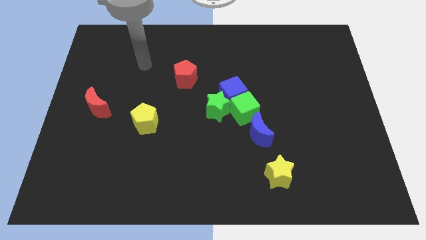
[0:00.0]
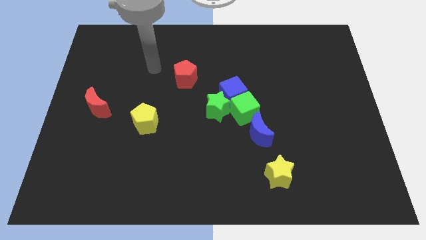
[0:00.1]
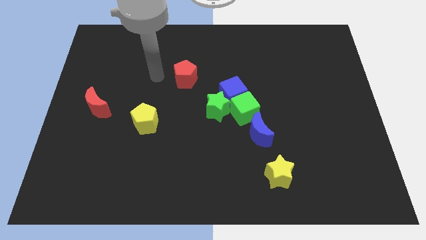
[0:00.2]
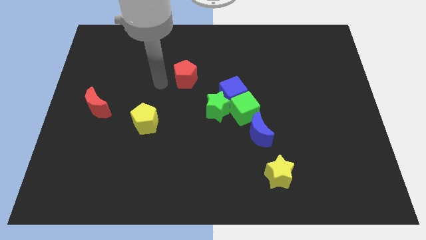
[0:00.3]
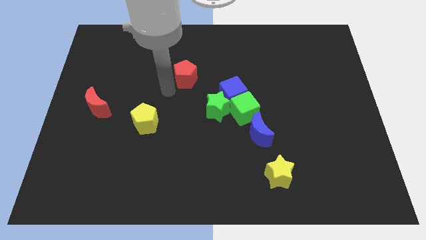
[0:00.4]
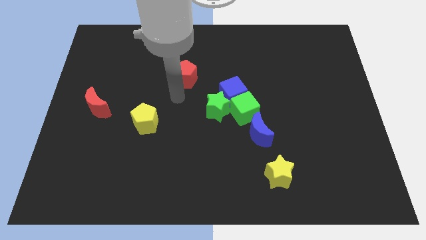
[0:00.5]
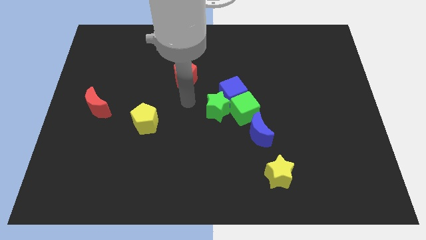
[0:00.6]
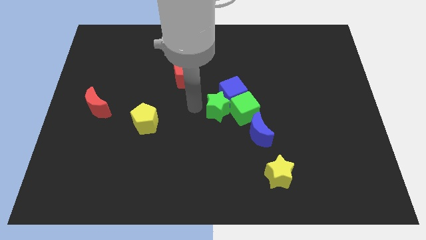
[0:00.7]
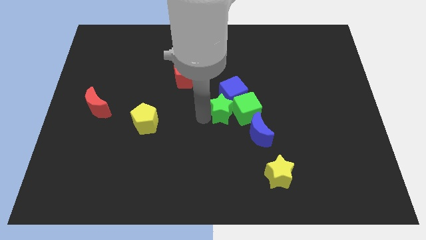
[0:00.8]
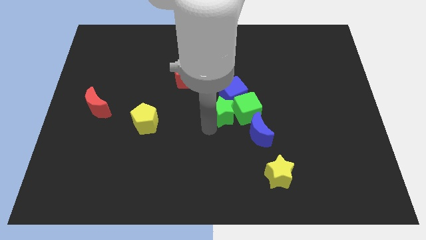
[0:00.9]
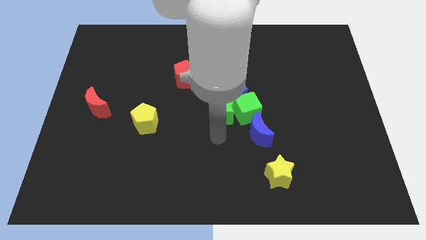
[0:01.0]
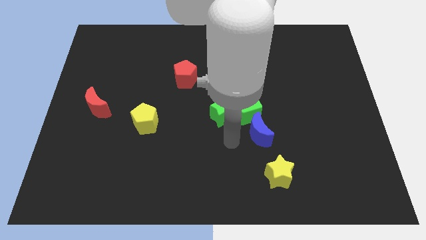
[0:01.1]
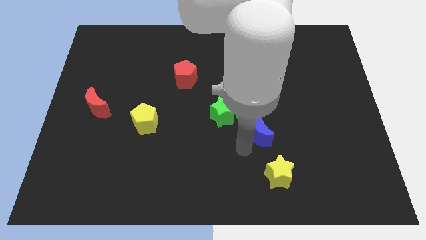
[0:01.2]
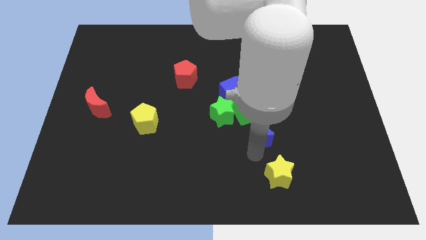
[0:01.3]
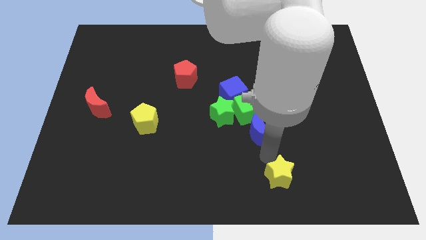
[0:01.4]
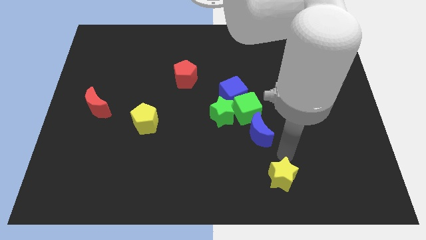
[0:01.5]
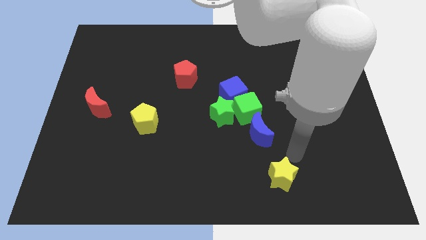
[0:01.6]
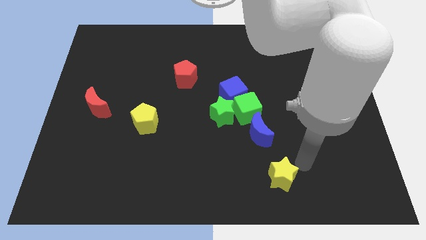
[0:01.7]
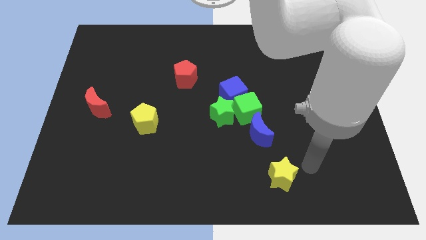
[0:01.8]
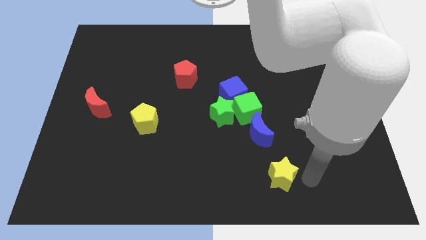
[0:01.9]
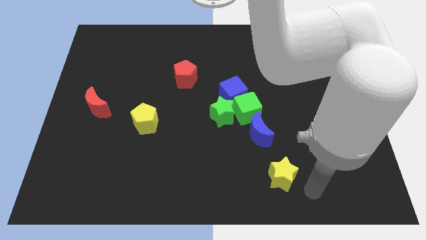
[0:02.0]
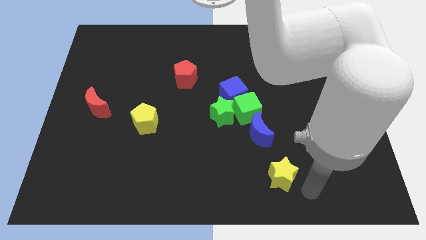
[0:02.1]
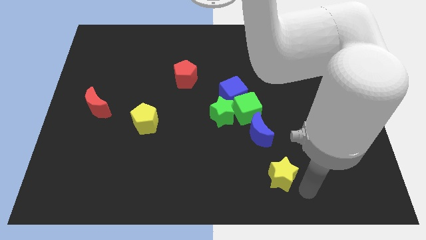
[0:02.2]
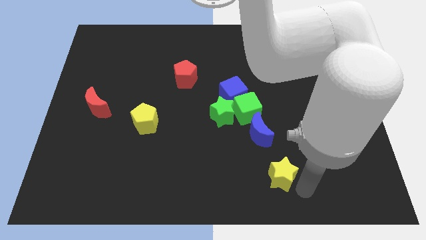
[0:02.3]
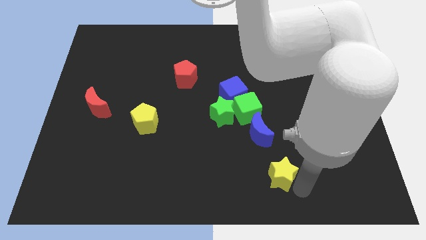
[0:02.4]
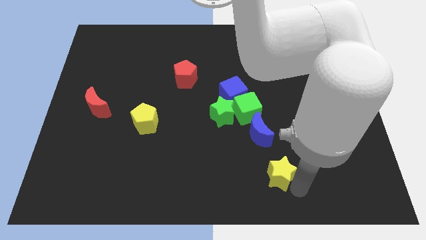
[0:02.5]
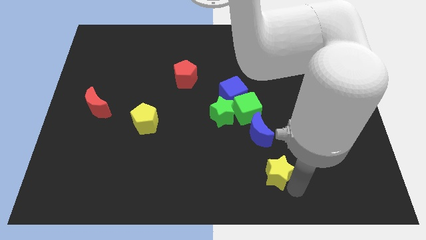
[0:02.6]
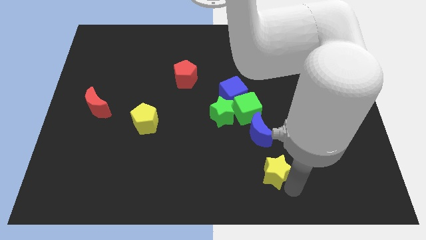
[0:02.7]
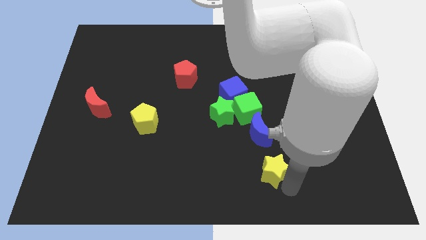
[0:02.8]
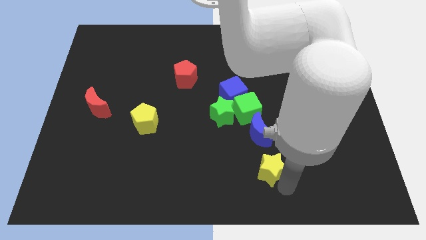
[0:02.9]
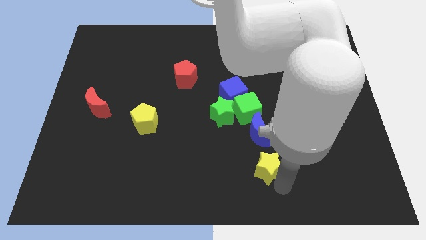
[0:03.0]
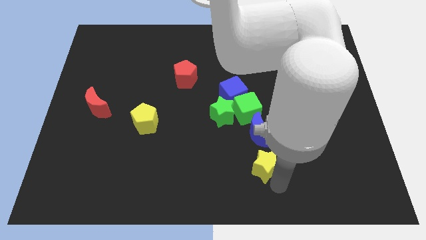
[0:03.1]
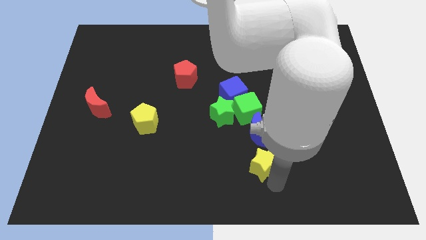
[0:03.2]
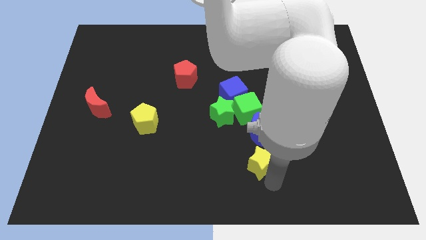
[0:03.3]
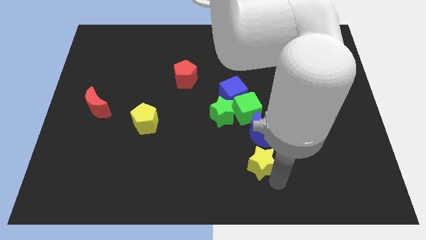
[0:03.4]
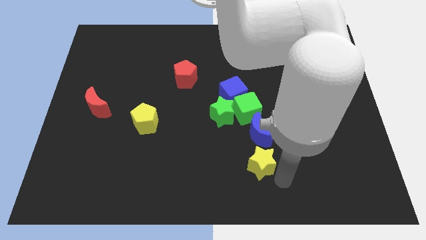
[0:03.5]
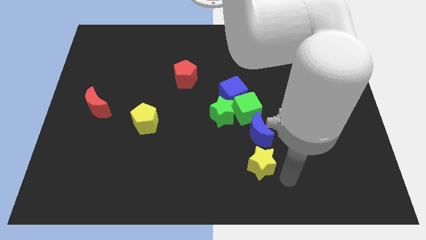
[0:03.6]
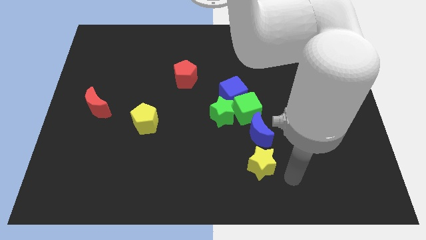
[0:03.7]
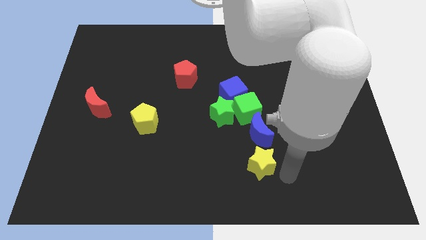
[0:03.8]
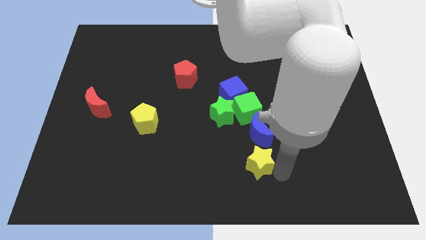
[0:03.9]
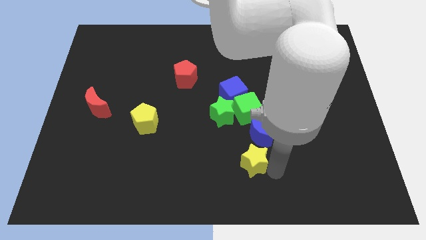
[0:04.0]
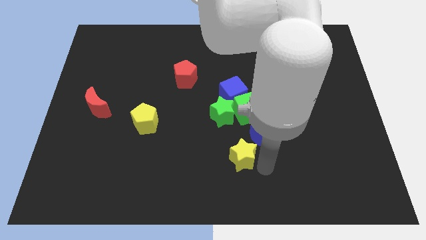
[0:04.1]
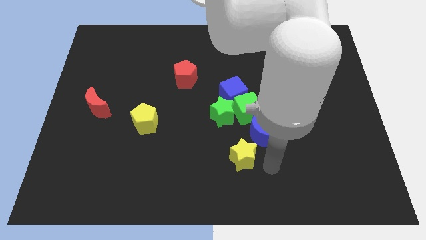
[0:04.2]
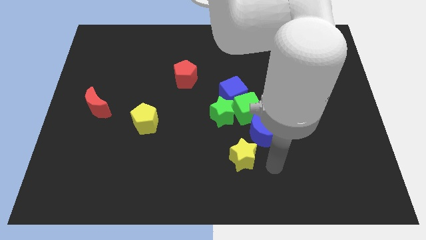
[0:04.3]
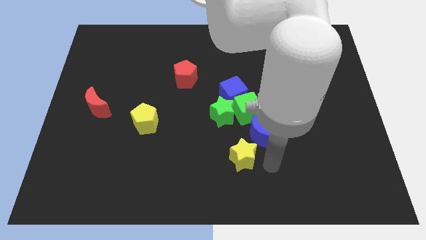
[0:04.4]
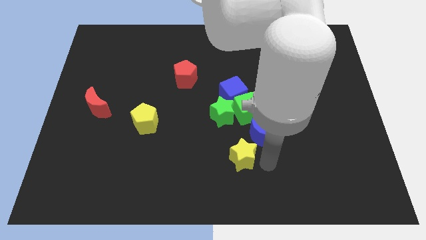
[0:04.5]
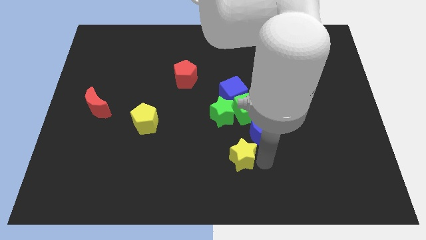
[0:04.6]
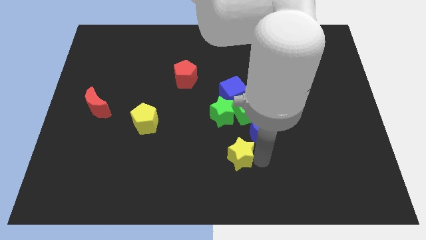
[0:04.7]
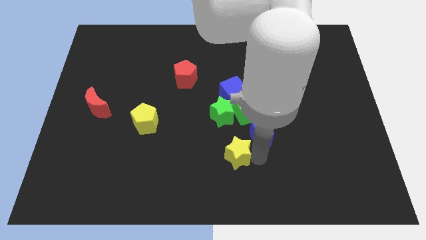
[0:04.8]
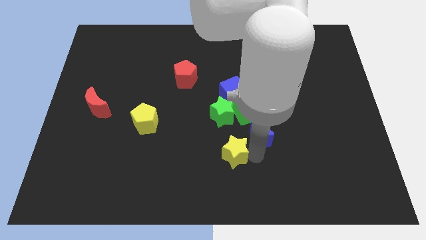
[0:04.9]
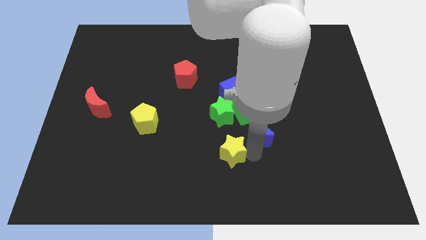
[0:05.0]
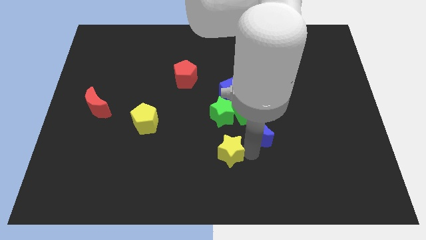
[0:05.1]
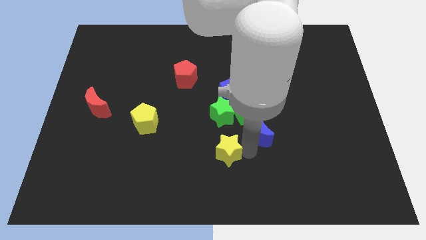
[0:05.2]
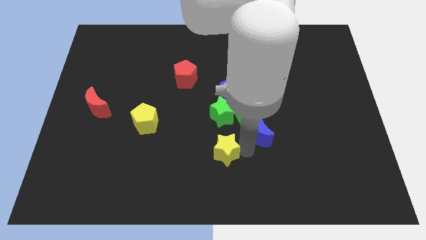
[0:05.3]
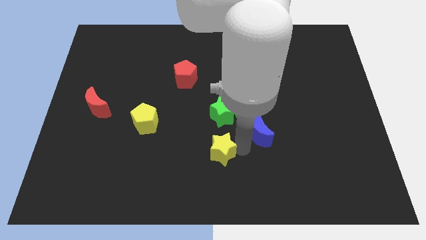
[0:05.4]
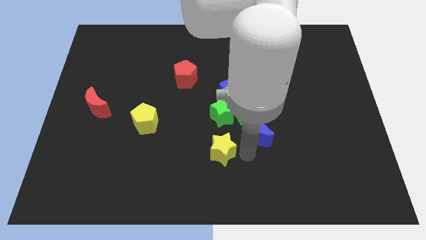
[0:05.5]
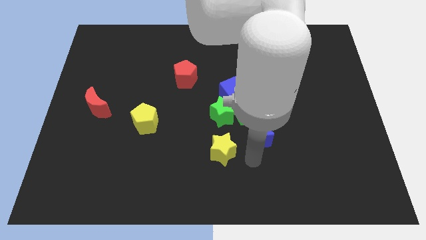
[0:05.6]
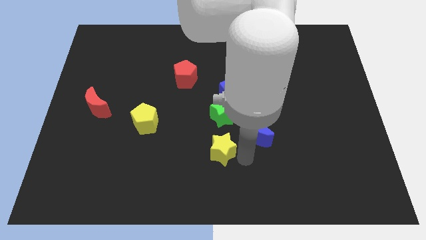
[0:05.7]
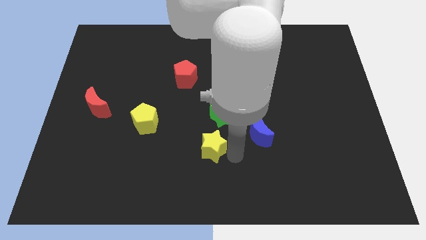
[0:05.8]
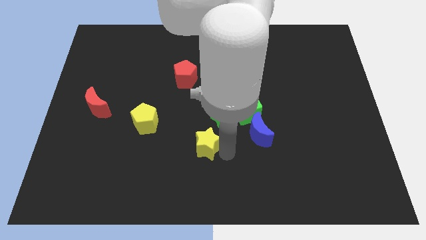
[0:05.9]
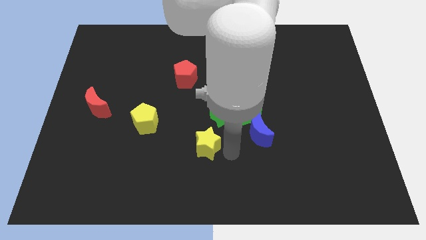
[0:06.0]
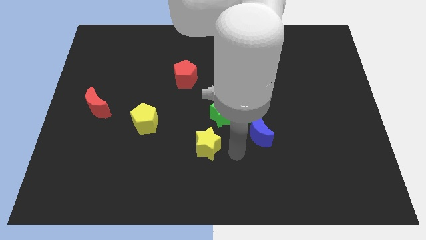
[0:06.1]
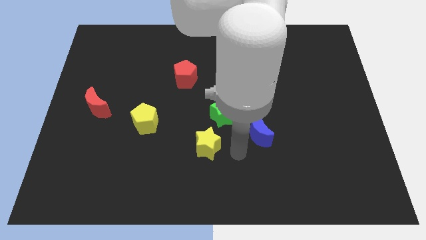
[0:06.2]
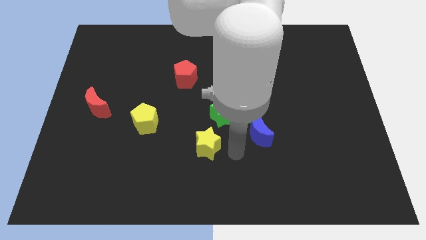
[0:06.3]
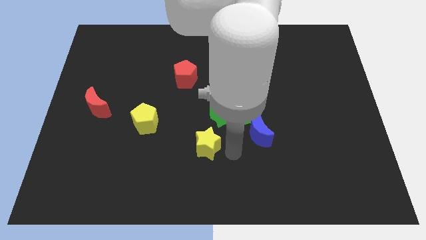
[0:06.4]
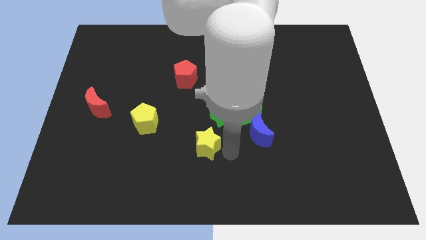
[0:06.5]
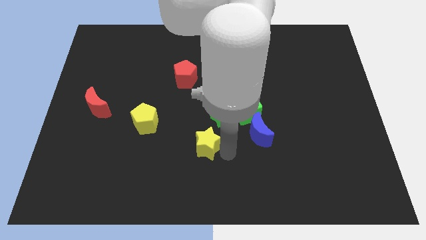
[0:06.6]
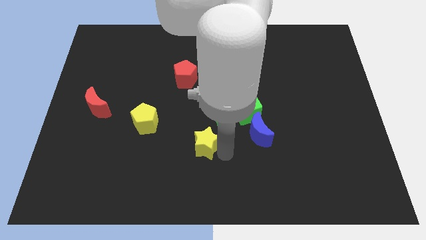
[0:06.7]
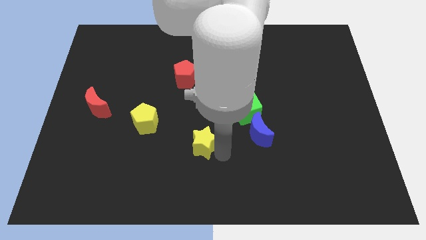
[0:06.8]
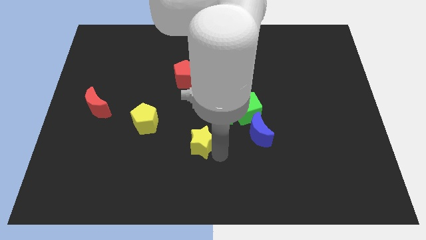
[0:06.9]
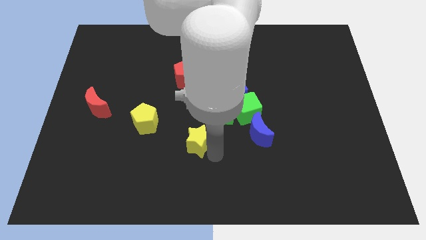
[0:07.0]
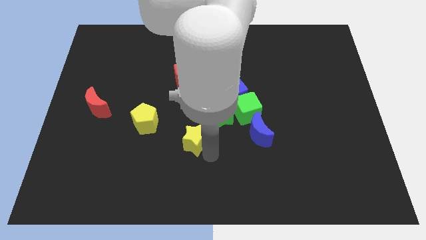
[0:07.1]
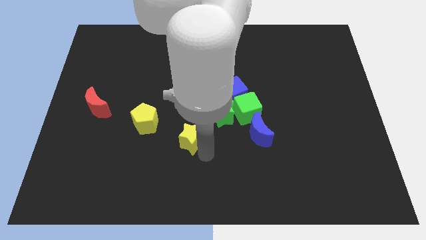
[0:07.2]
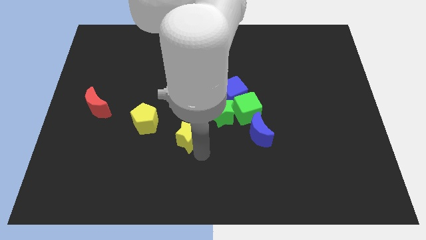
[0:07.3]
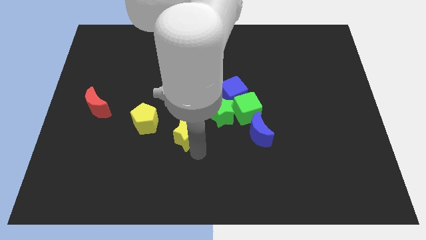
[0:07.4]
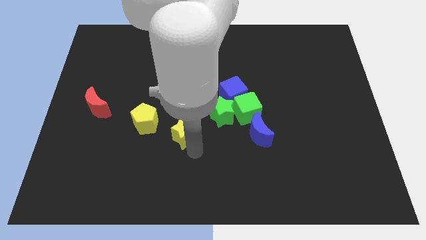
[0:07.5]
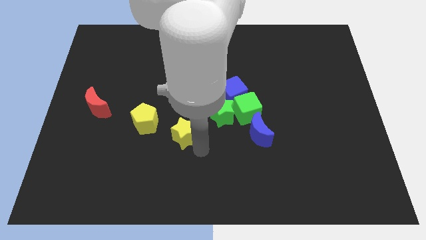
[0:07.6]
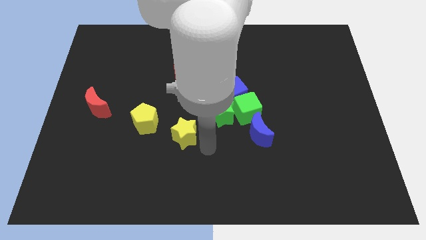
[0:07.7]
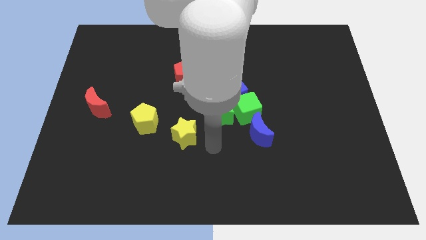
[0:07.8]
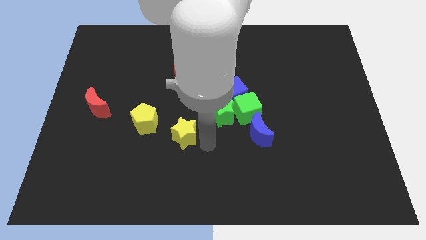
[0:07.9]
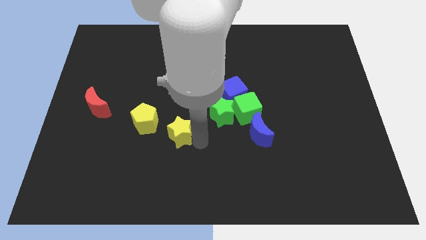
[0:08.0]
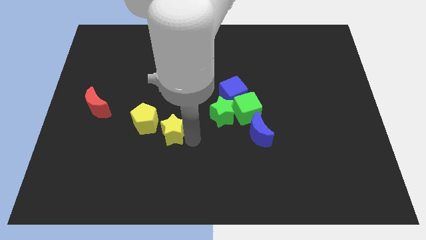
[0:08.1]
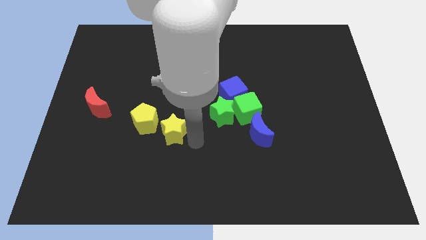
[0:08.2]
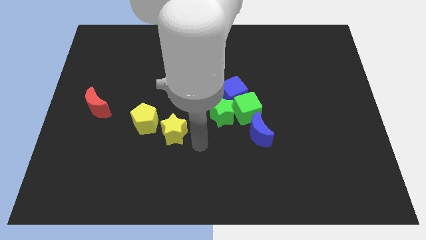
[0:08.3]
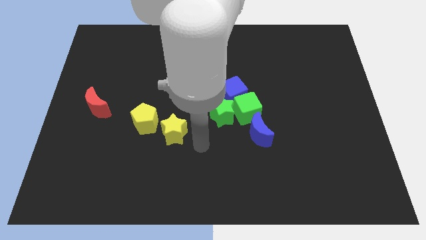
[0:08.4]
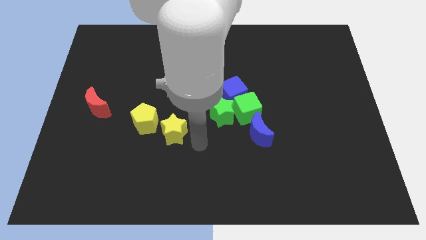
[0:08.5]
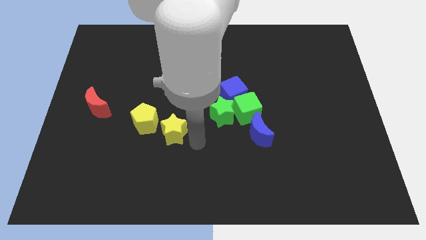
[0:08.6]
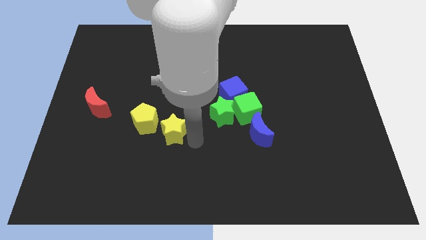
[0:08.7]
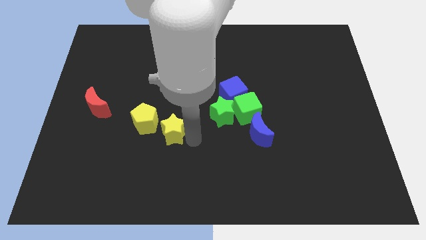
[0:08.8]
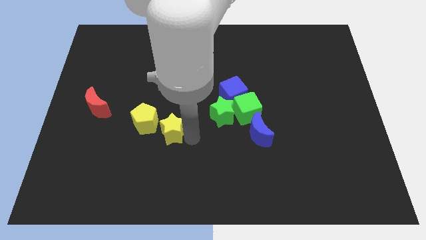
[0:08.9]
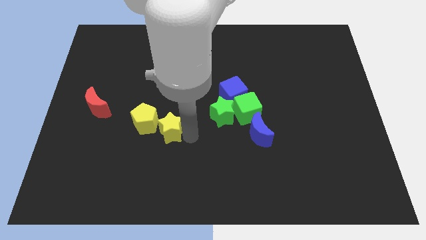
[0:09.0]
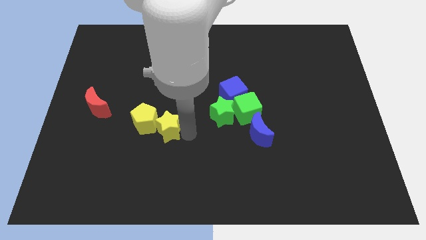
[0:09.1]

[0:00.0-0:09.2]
put the yellow star to the yellow pentagon
